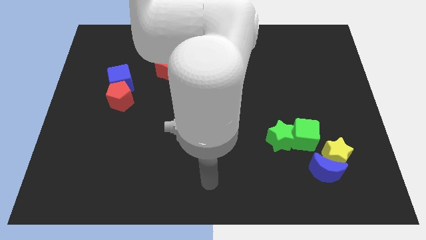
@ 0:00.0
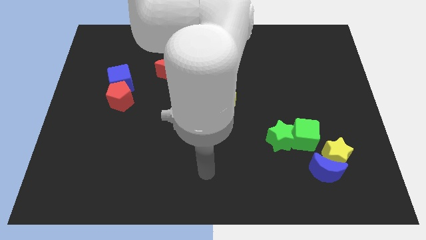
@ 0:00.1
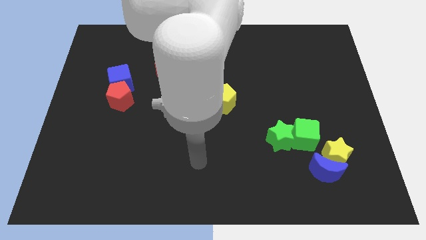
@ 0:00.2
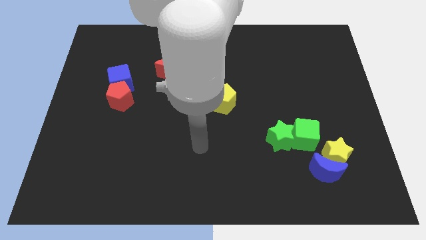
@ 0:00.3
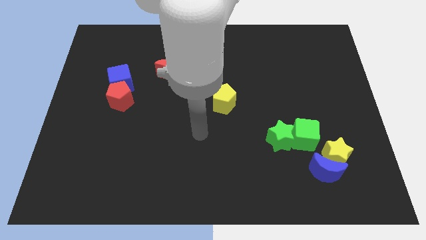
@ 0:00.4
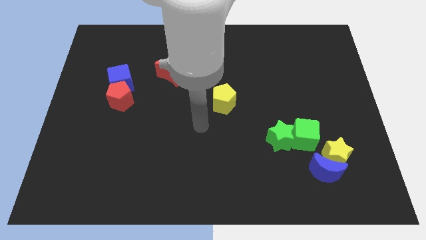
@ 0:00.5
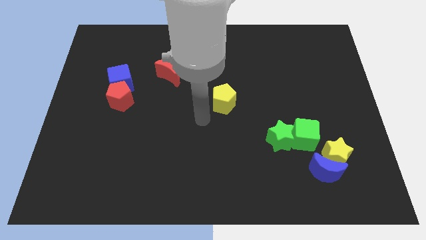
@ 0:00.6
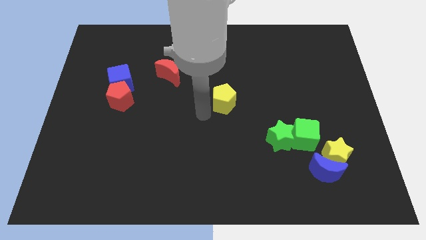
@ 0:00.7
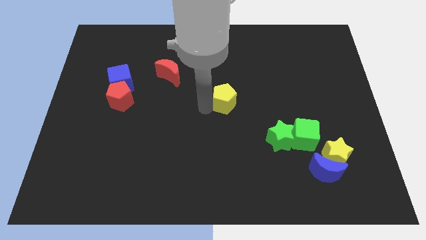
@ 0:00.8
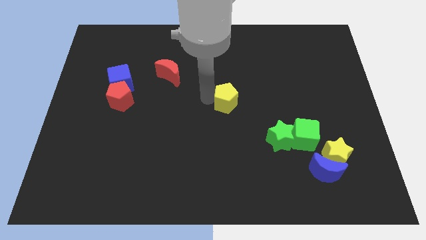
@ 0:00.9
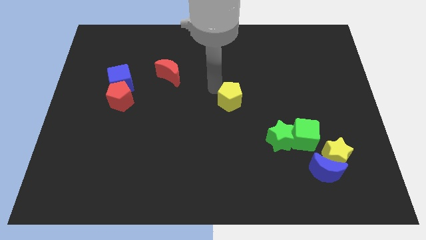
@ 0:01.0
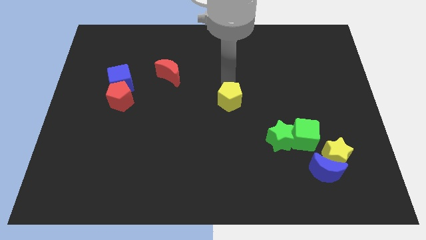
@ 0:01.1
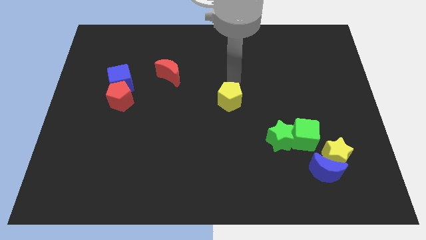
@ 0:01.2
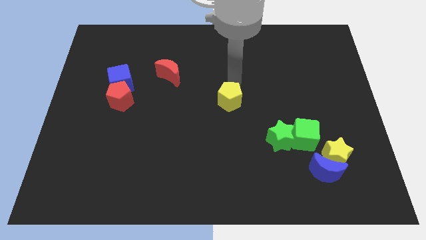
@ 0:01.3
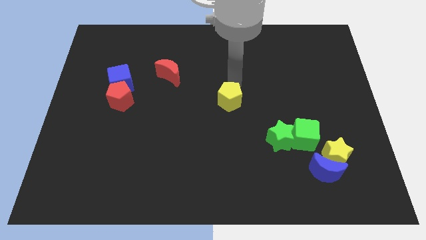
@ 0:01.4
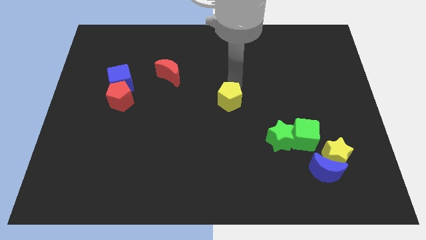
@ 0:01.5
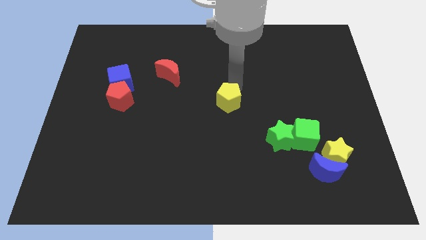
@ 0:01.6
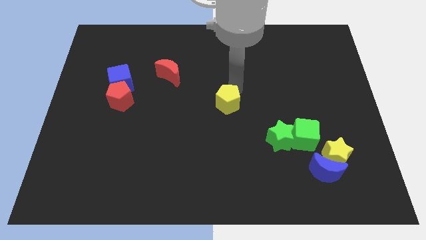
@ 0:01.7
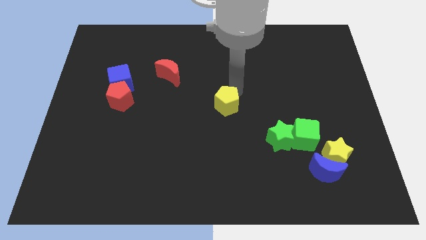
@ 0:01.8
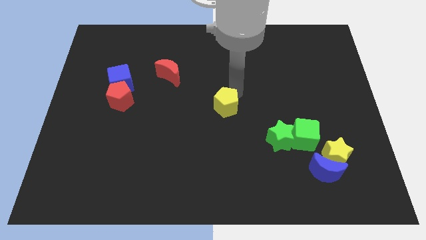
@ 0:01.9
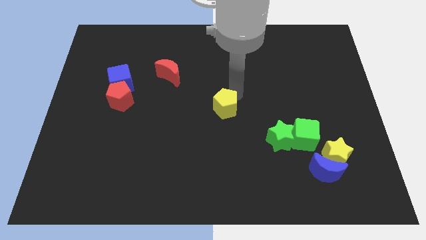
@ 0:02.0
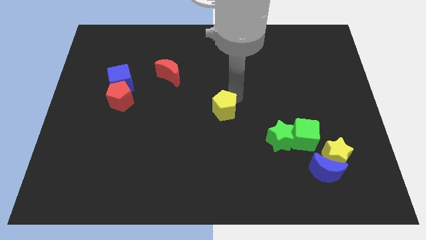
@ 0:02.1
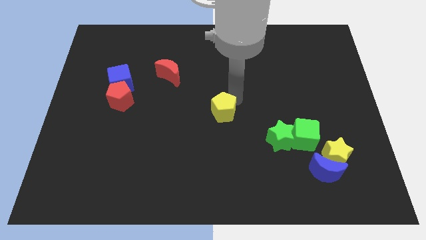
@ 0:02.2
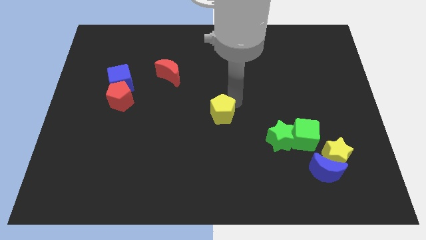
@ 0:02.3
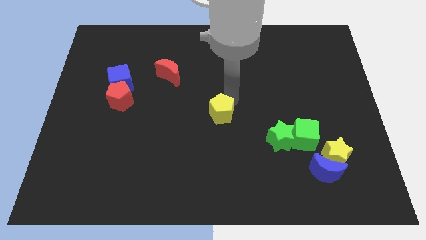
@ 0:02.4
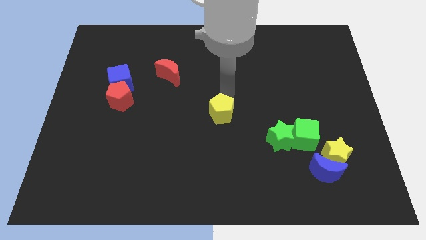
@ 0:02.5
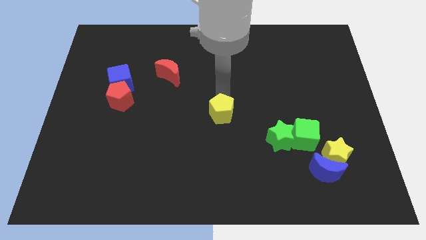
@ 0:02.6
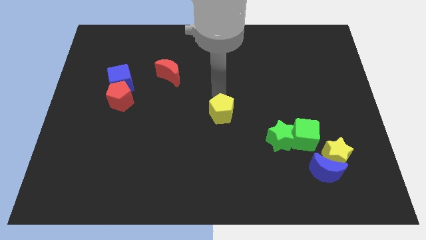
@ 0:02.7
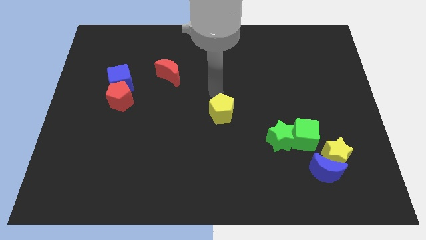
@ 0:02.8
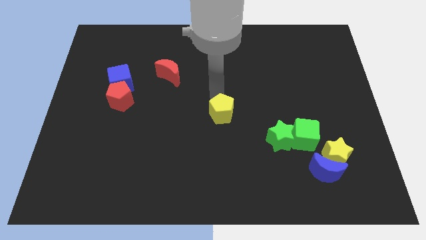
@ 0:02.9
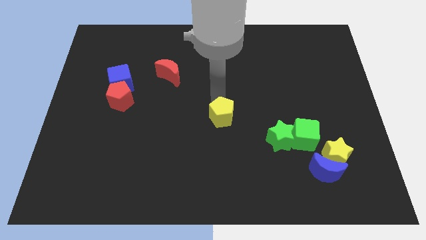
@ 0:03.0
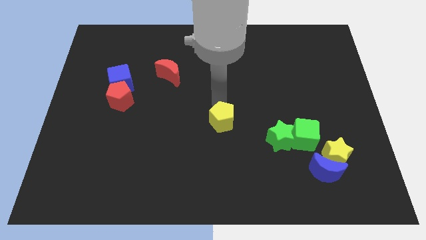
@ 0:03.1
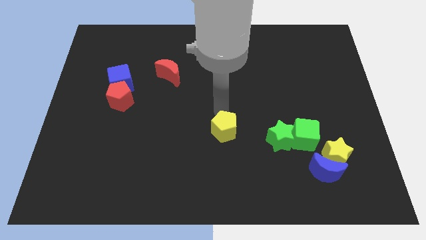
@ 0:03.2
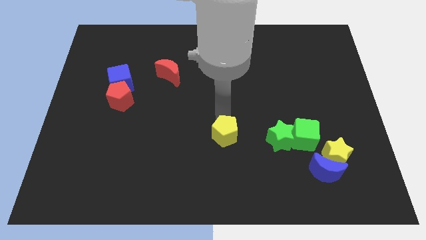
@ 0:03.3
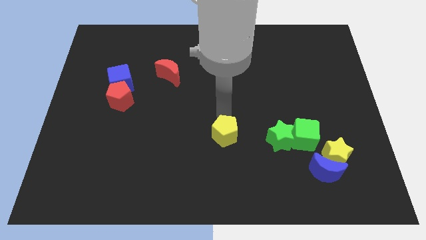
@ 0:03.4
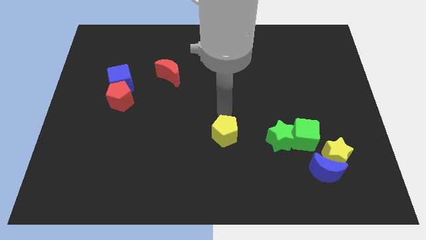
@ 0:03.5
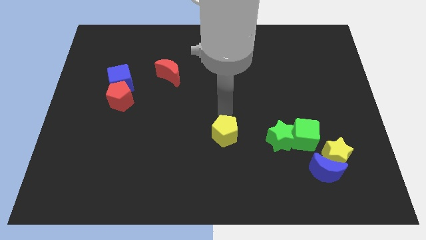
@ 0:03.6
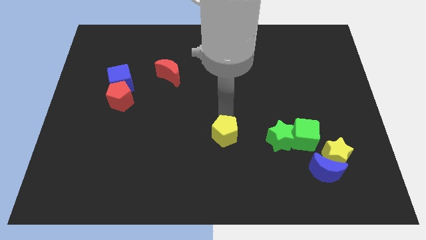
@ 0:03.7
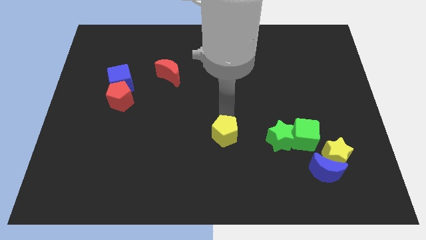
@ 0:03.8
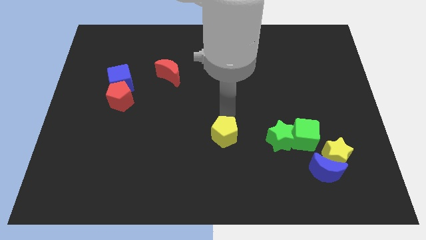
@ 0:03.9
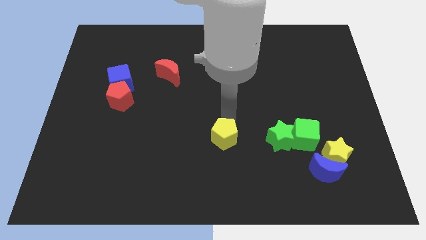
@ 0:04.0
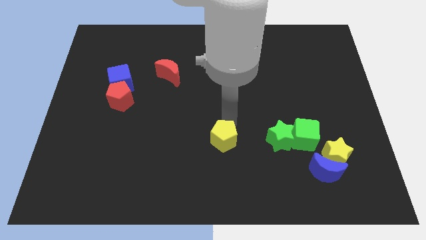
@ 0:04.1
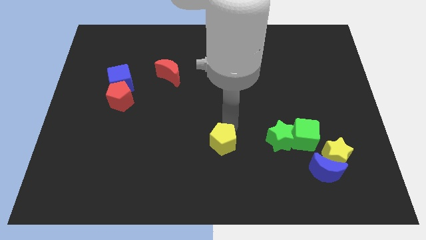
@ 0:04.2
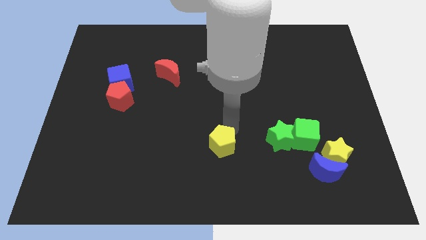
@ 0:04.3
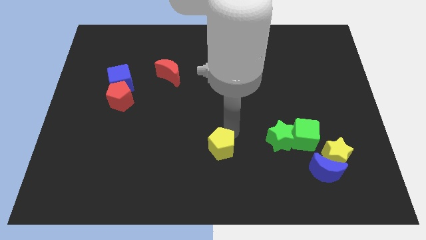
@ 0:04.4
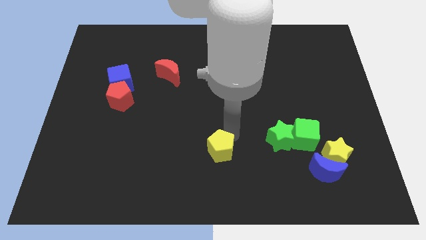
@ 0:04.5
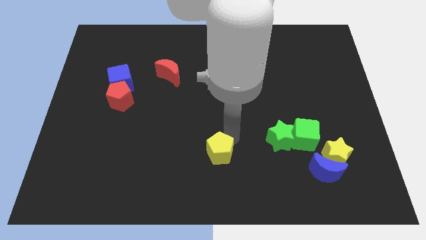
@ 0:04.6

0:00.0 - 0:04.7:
push the yellow pentagon to the bottom

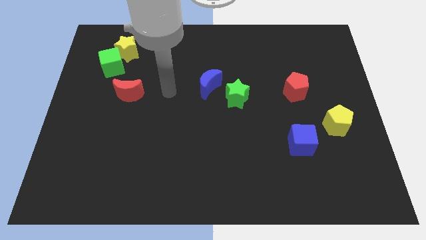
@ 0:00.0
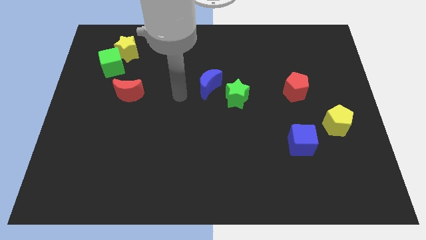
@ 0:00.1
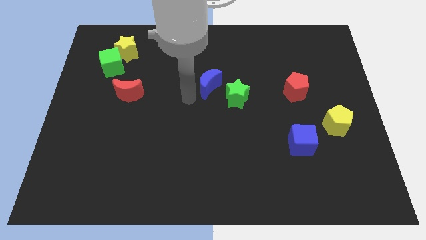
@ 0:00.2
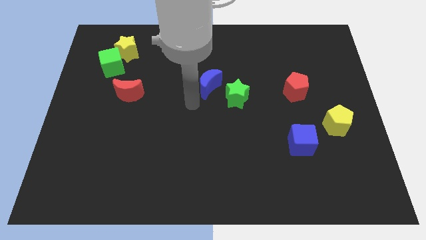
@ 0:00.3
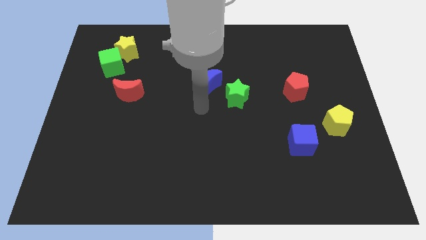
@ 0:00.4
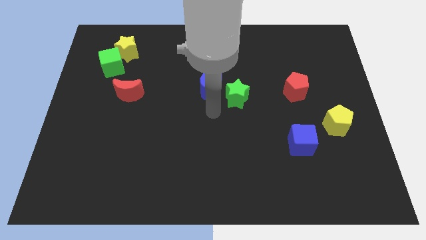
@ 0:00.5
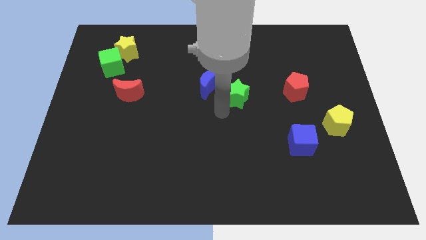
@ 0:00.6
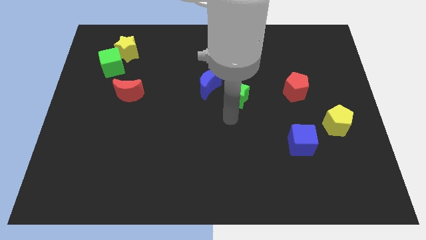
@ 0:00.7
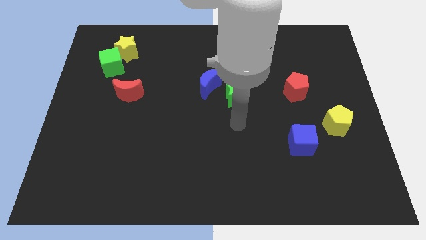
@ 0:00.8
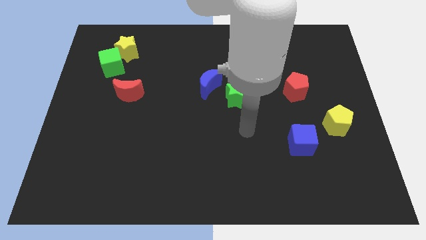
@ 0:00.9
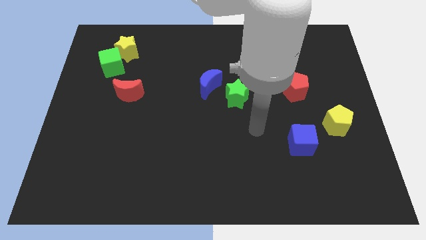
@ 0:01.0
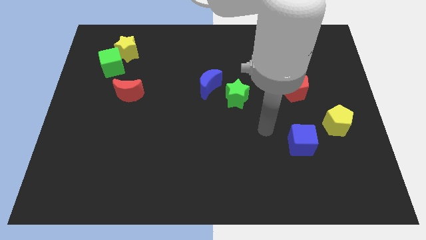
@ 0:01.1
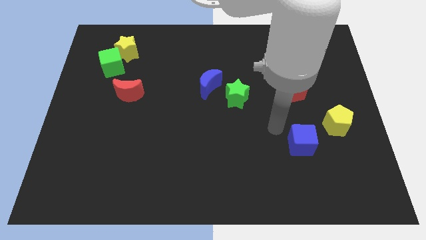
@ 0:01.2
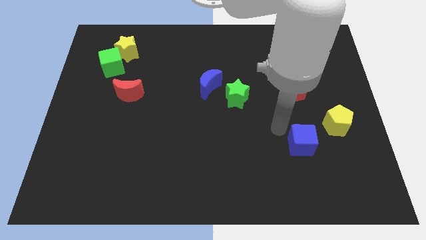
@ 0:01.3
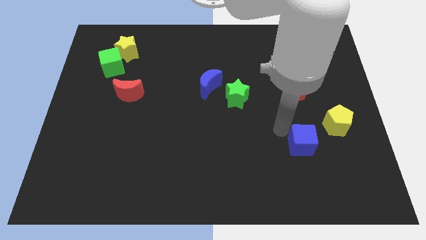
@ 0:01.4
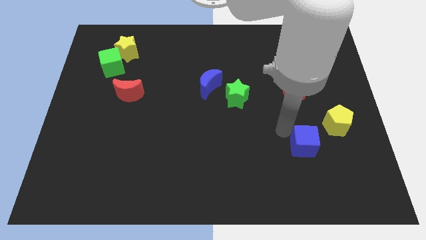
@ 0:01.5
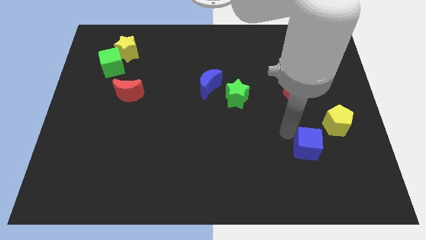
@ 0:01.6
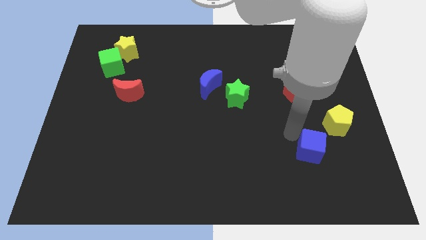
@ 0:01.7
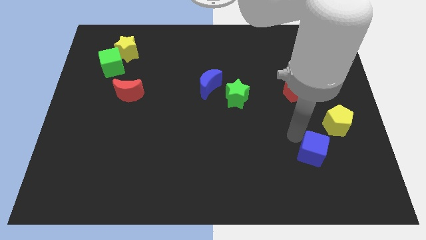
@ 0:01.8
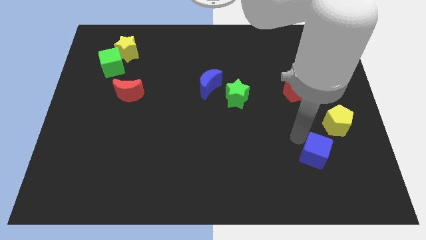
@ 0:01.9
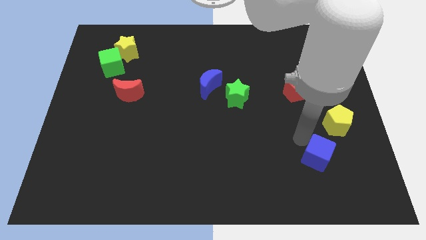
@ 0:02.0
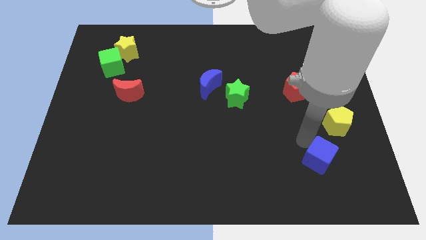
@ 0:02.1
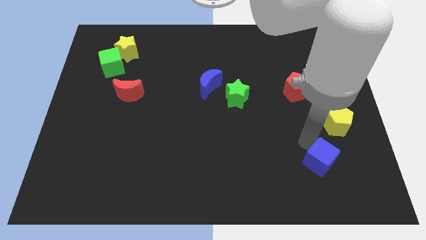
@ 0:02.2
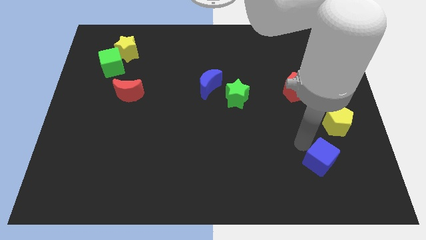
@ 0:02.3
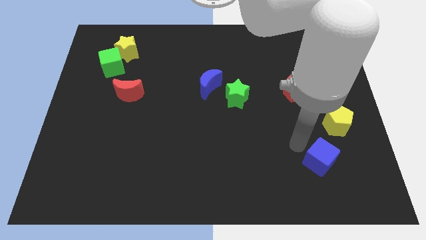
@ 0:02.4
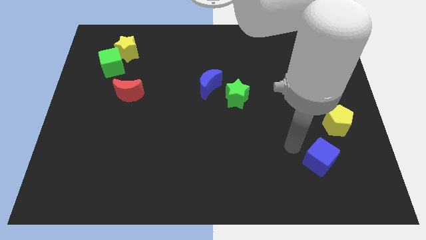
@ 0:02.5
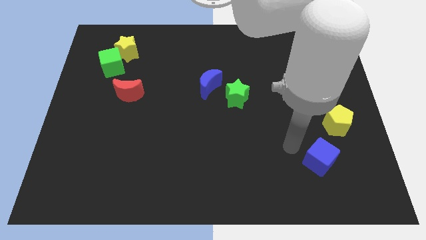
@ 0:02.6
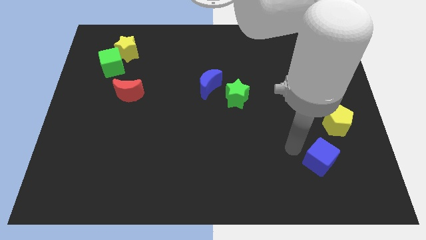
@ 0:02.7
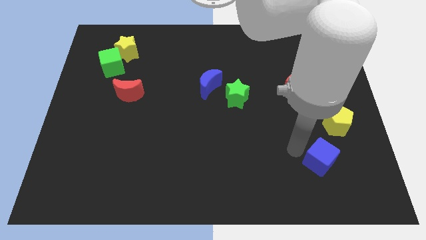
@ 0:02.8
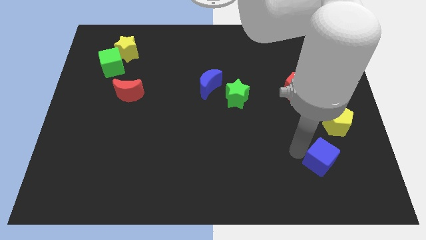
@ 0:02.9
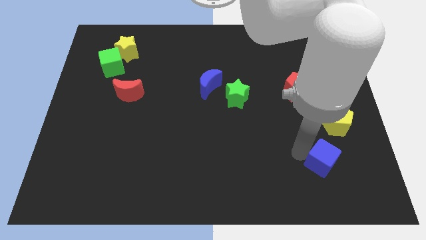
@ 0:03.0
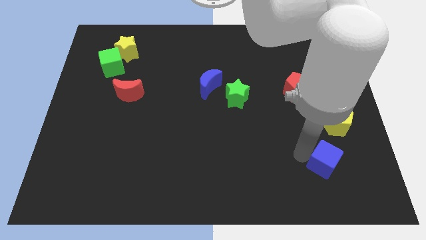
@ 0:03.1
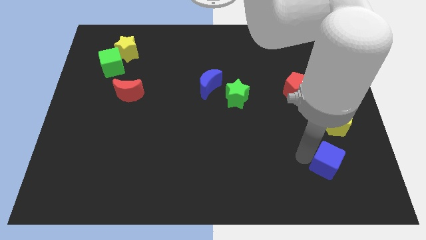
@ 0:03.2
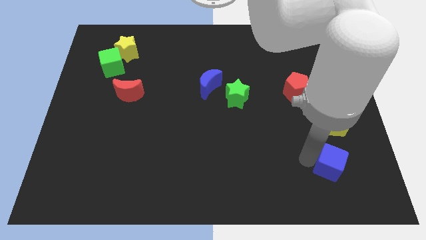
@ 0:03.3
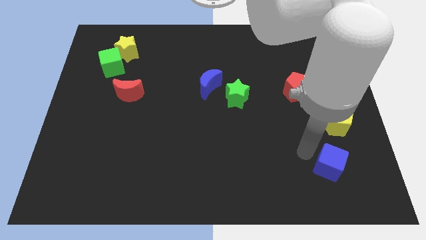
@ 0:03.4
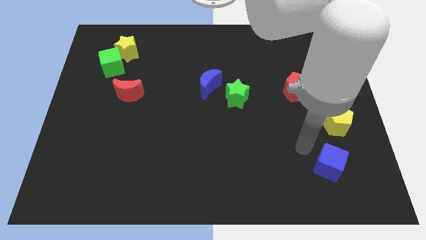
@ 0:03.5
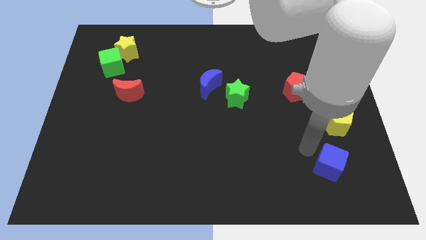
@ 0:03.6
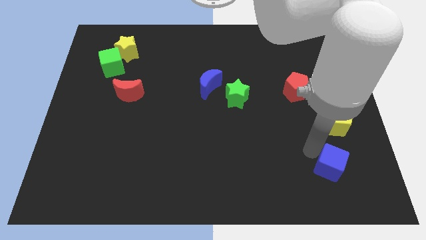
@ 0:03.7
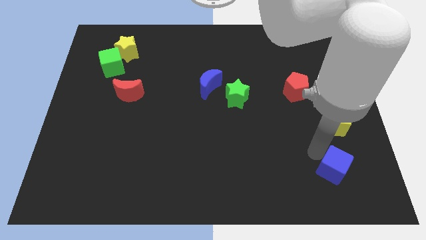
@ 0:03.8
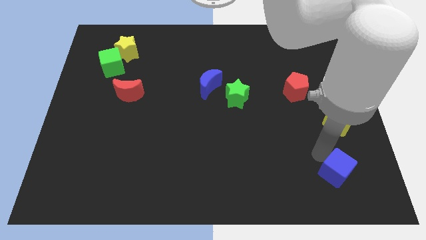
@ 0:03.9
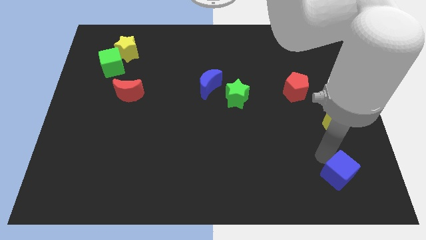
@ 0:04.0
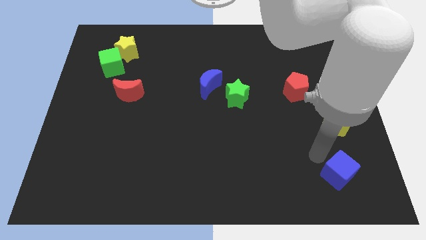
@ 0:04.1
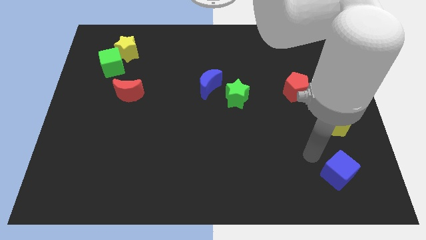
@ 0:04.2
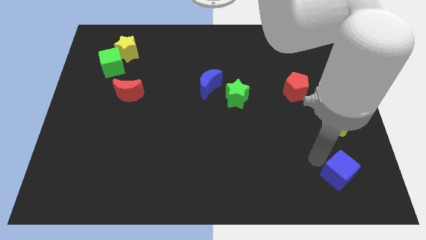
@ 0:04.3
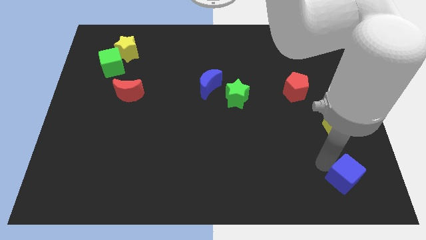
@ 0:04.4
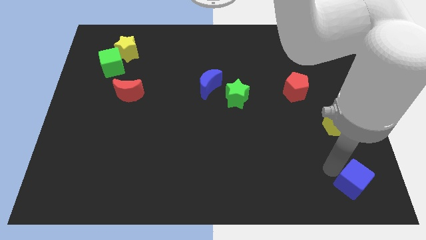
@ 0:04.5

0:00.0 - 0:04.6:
push the blue cube to the bottom right of the board
